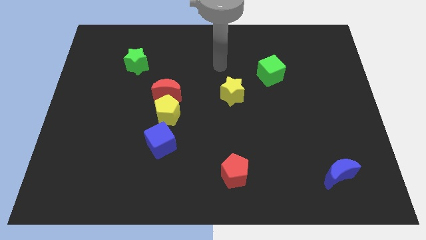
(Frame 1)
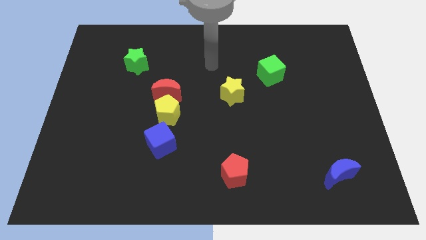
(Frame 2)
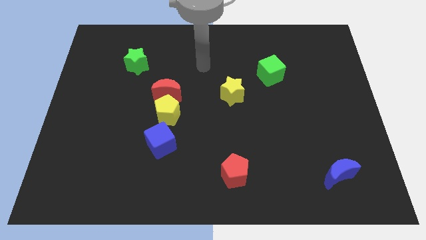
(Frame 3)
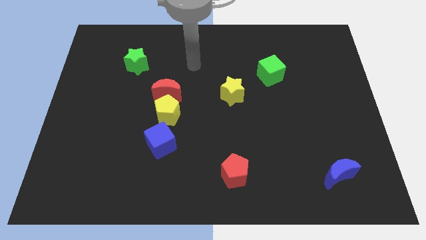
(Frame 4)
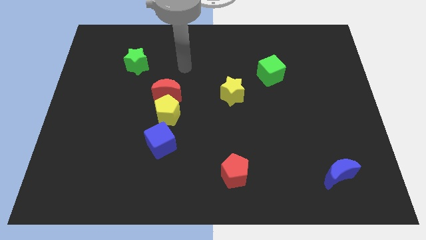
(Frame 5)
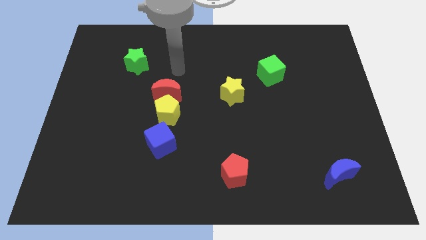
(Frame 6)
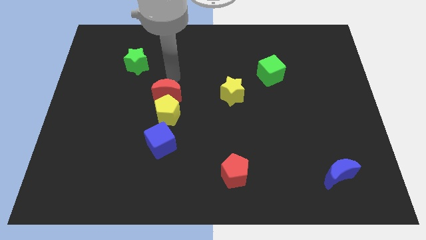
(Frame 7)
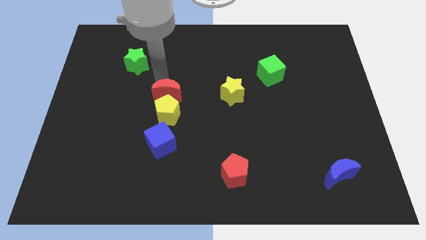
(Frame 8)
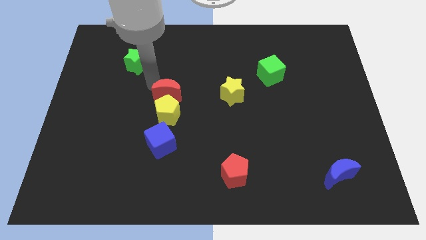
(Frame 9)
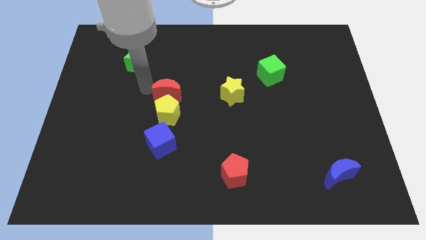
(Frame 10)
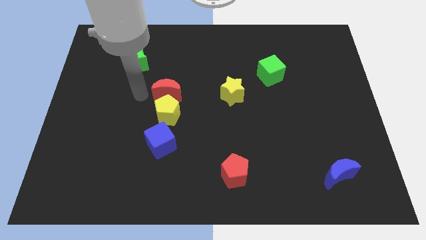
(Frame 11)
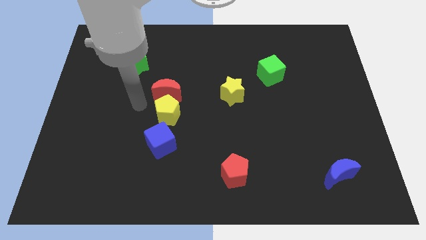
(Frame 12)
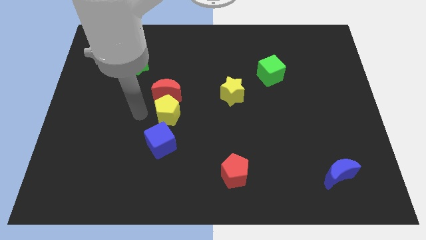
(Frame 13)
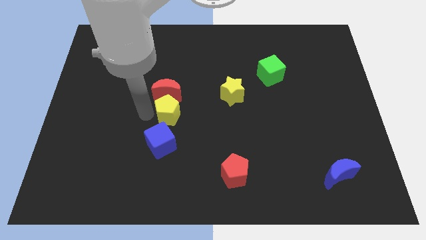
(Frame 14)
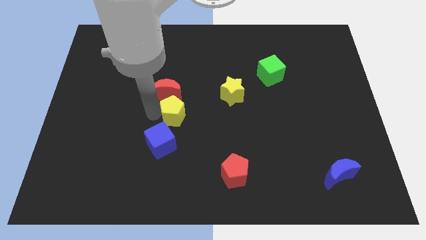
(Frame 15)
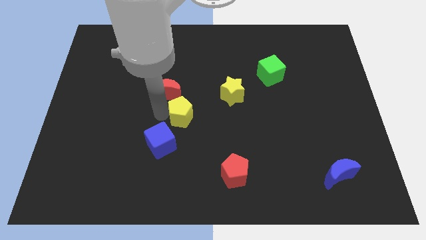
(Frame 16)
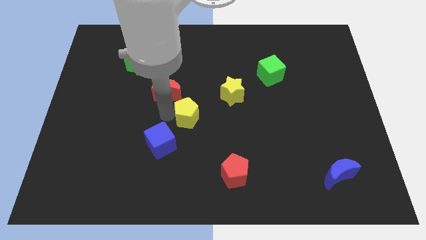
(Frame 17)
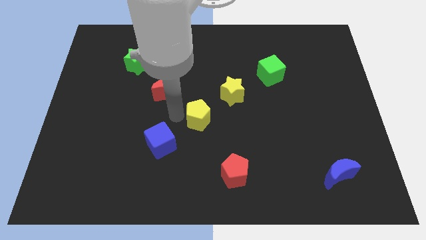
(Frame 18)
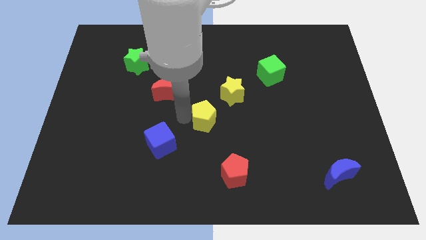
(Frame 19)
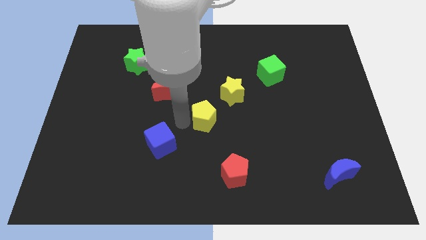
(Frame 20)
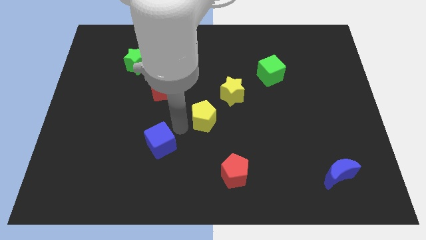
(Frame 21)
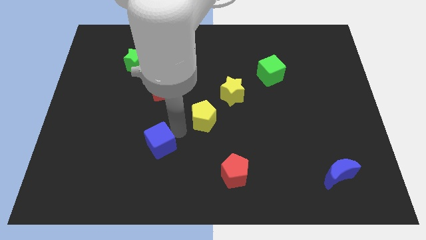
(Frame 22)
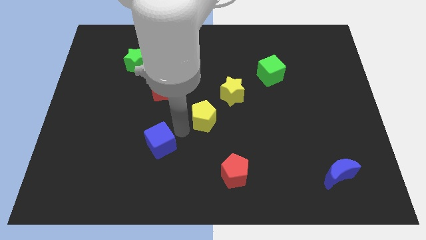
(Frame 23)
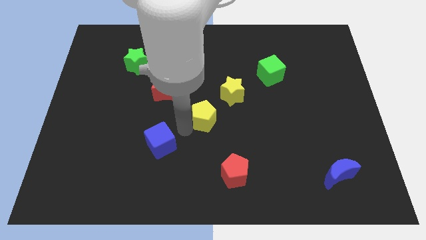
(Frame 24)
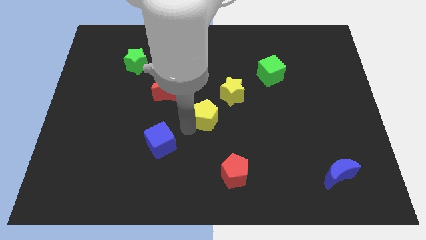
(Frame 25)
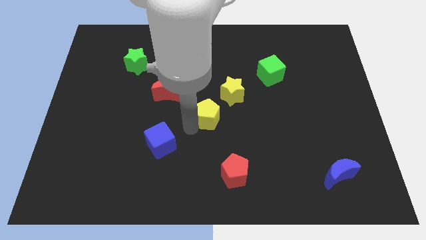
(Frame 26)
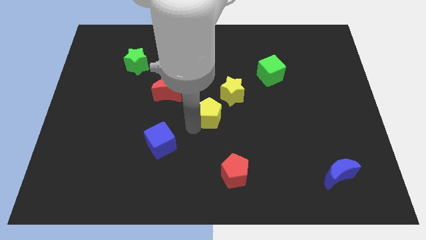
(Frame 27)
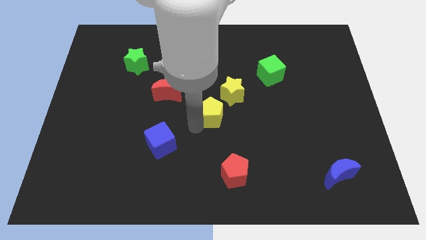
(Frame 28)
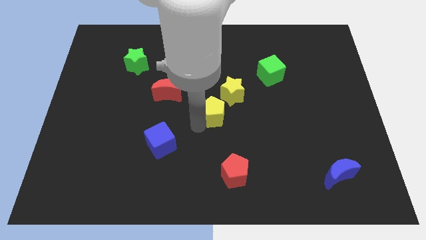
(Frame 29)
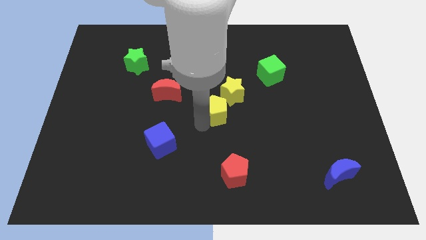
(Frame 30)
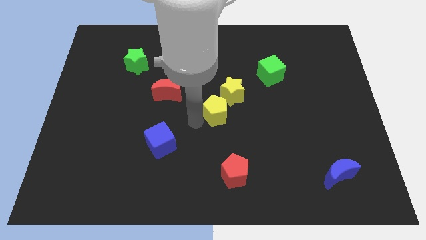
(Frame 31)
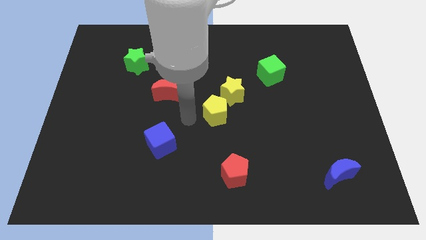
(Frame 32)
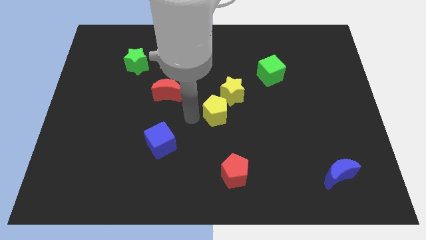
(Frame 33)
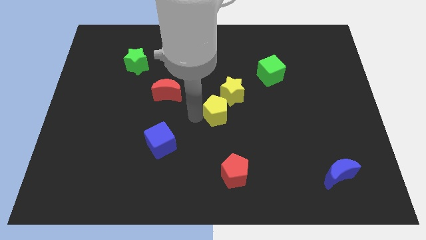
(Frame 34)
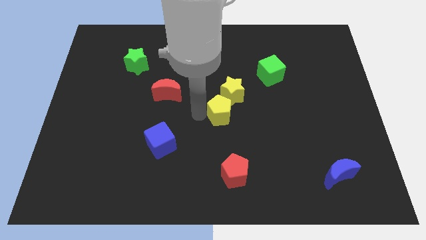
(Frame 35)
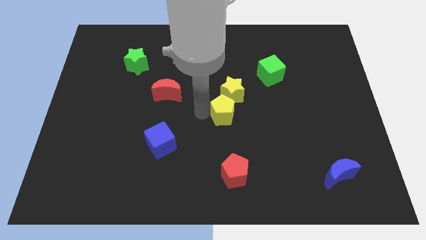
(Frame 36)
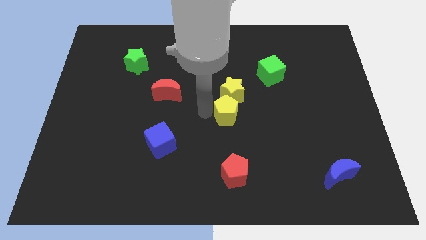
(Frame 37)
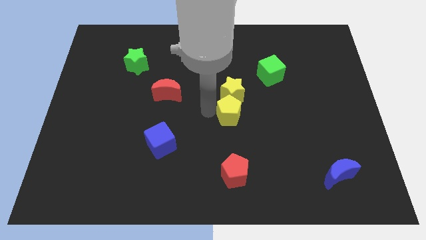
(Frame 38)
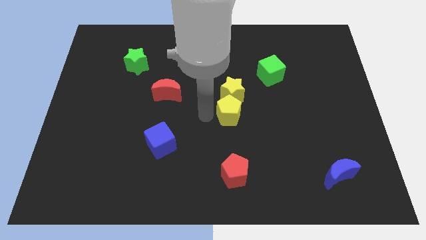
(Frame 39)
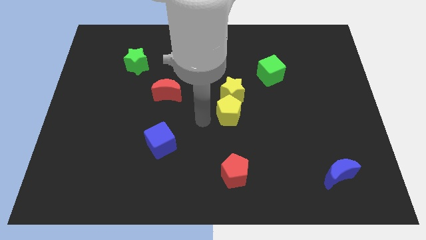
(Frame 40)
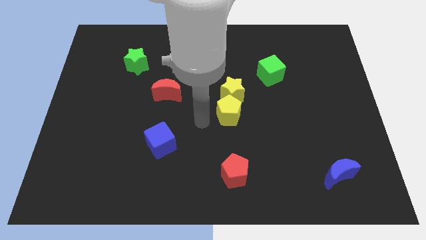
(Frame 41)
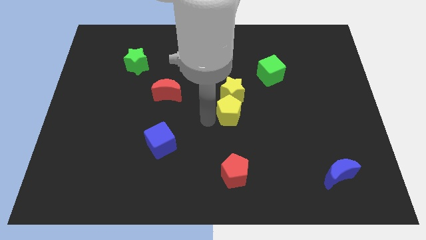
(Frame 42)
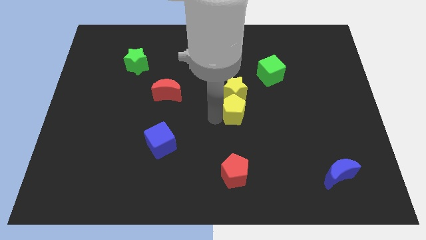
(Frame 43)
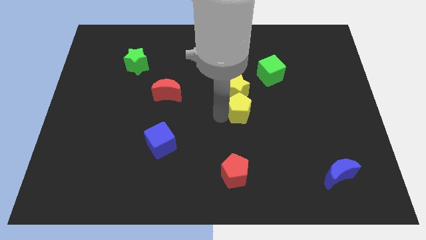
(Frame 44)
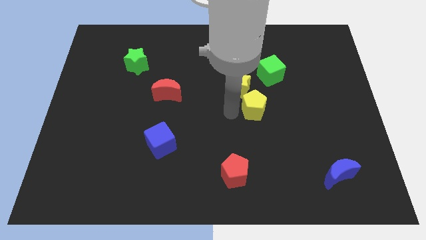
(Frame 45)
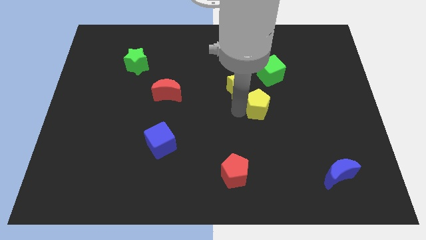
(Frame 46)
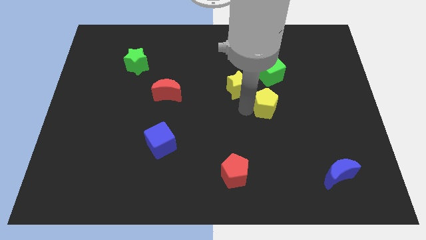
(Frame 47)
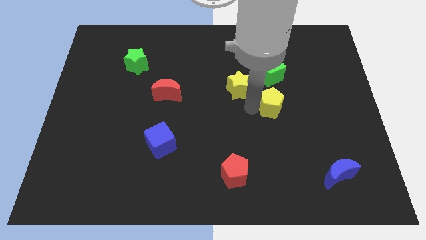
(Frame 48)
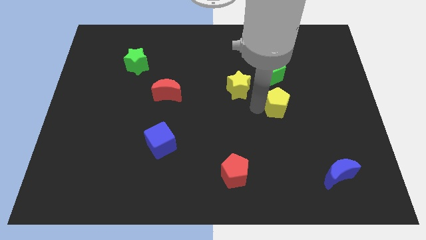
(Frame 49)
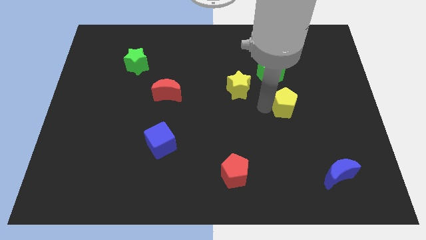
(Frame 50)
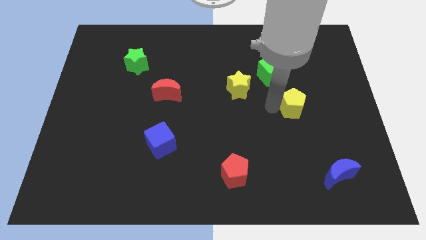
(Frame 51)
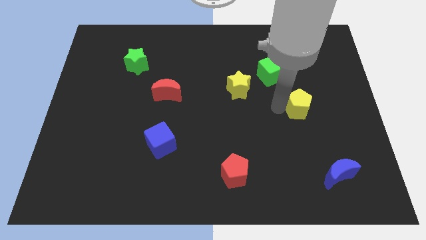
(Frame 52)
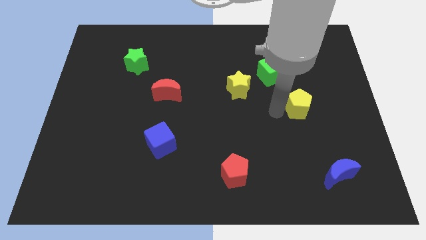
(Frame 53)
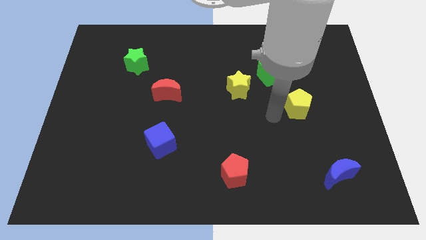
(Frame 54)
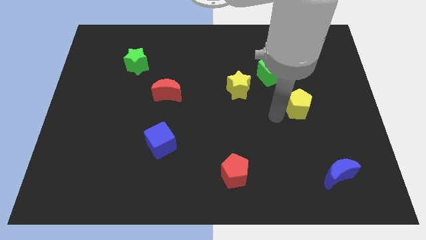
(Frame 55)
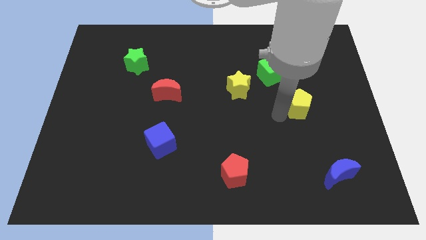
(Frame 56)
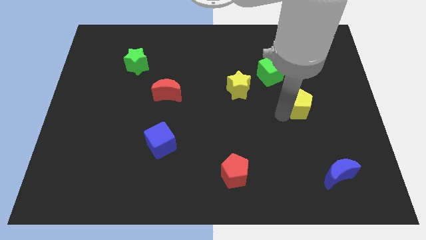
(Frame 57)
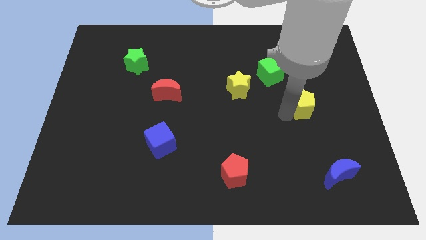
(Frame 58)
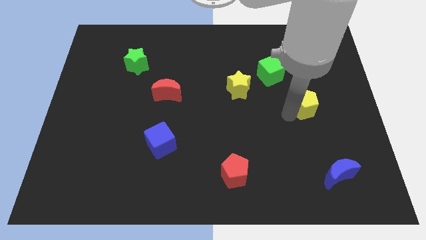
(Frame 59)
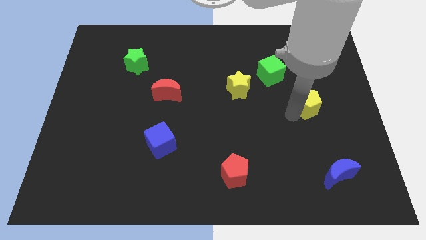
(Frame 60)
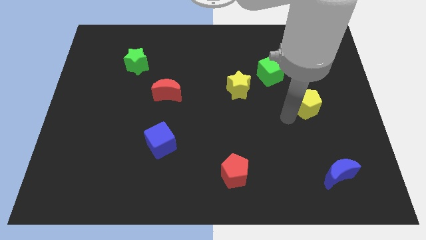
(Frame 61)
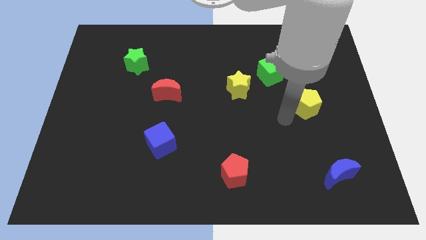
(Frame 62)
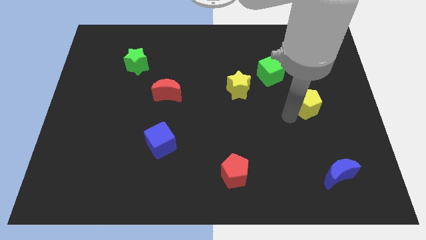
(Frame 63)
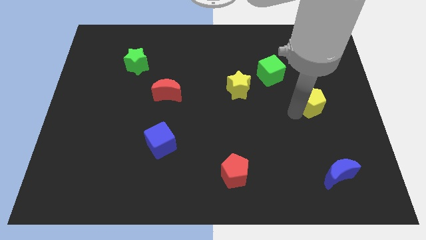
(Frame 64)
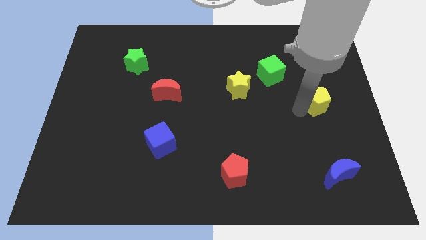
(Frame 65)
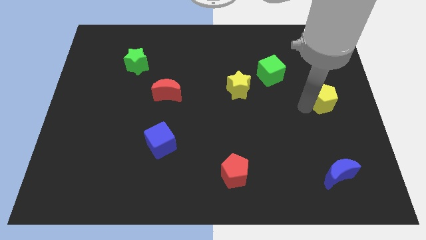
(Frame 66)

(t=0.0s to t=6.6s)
slide the yellow pentagon to the right side
